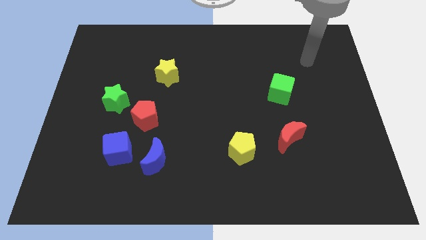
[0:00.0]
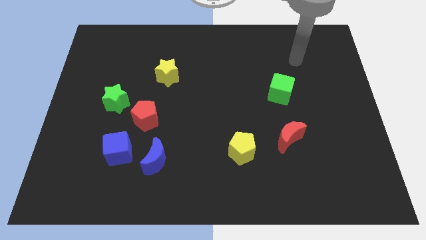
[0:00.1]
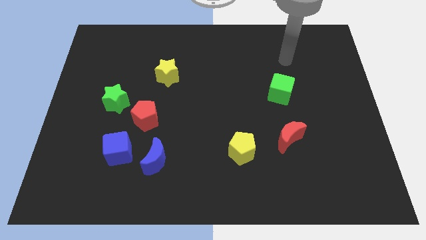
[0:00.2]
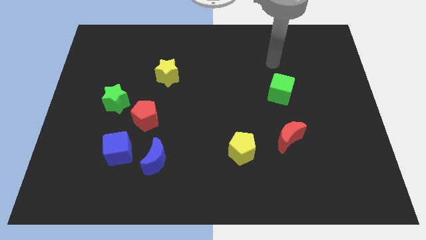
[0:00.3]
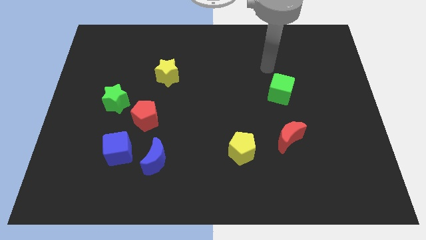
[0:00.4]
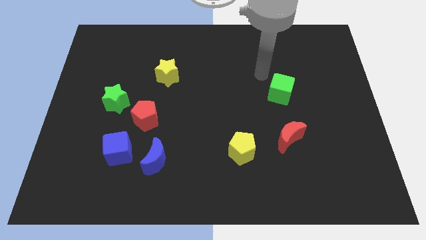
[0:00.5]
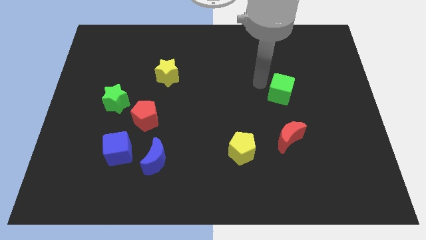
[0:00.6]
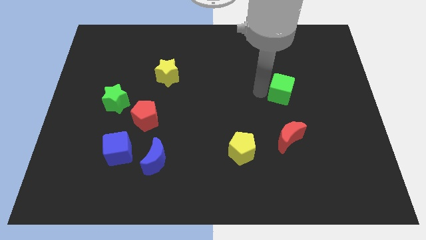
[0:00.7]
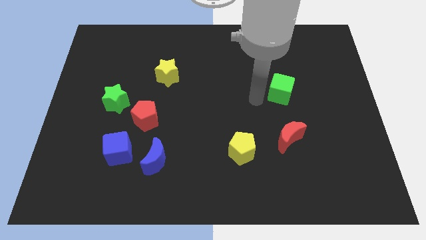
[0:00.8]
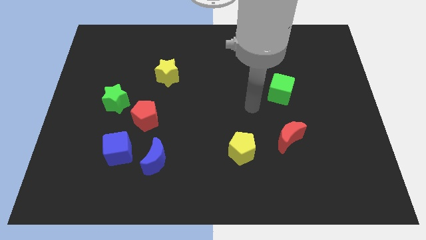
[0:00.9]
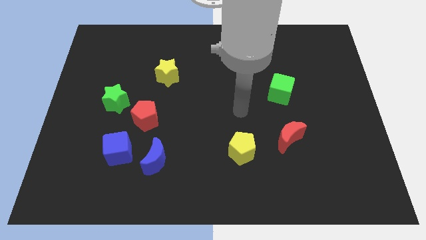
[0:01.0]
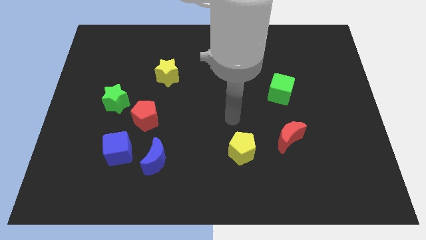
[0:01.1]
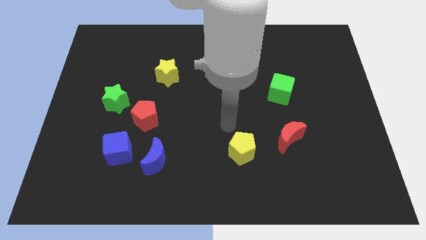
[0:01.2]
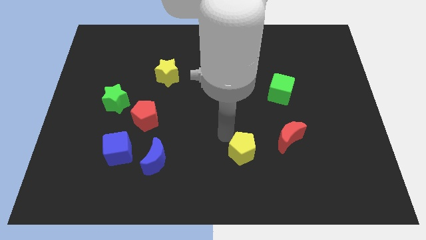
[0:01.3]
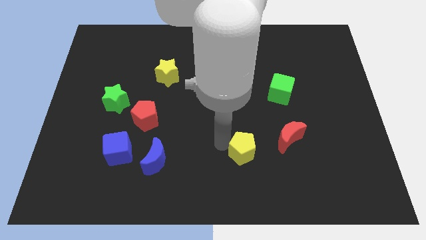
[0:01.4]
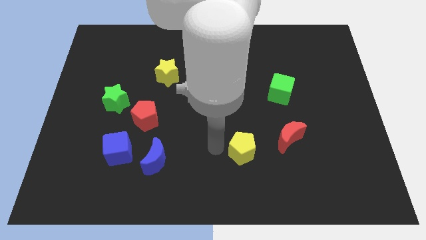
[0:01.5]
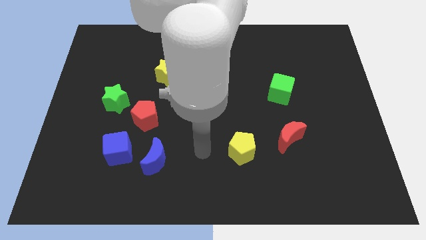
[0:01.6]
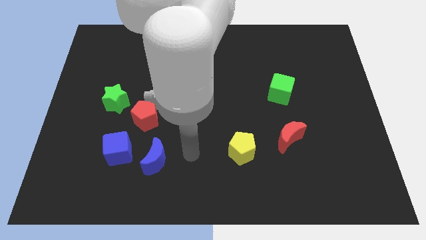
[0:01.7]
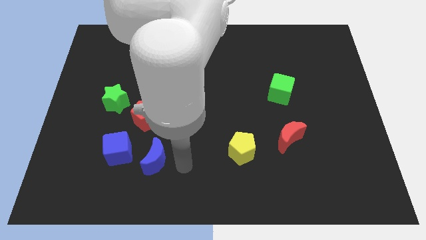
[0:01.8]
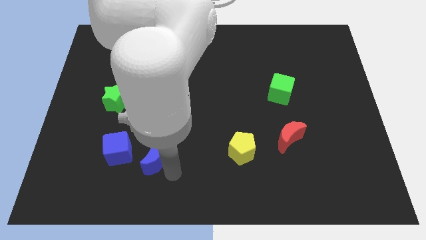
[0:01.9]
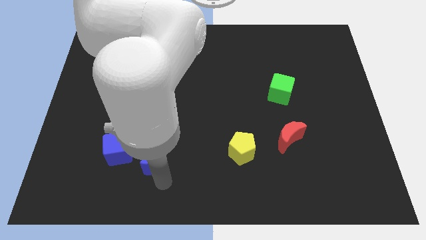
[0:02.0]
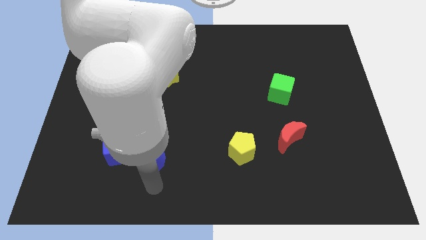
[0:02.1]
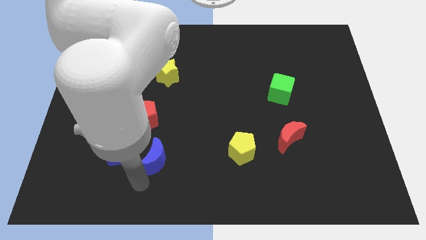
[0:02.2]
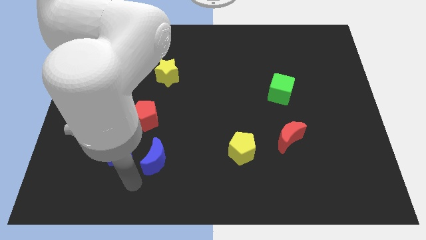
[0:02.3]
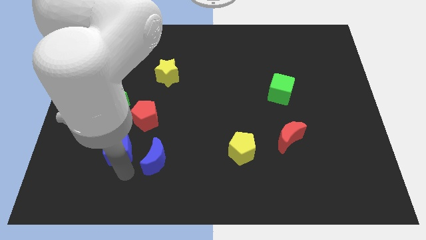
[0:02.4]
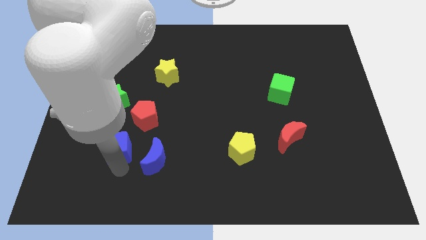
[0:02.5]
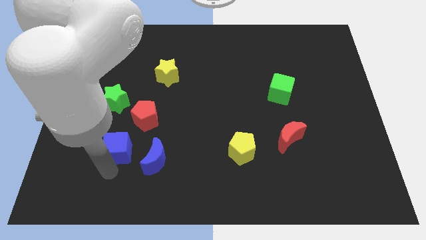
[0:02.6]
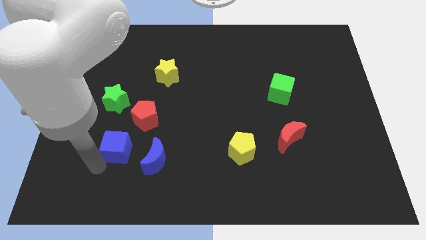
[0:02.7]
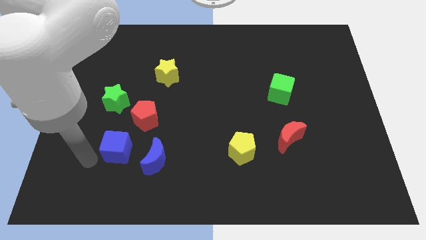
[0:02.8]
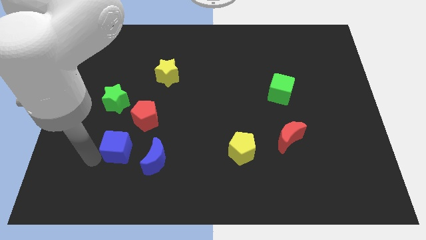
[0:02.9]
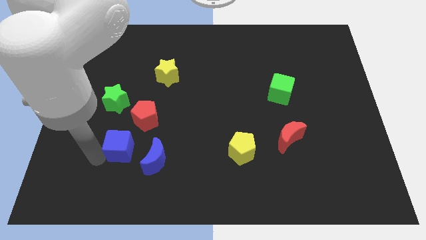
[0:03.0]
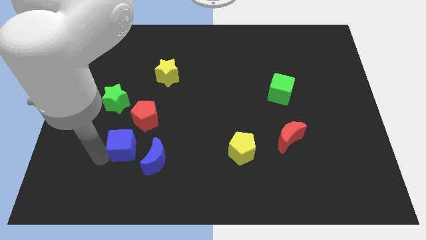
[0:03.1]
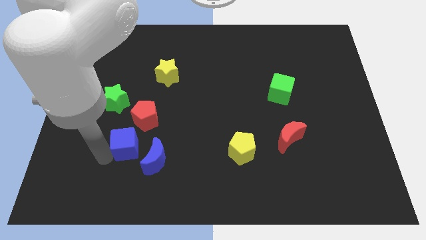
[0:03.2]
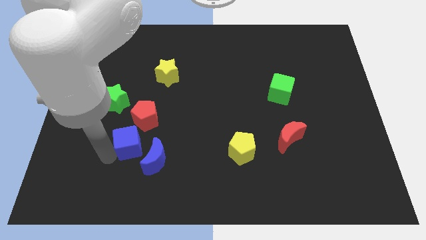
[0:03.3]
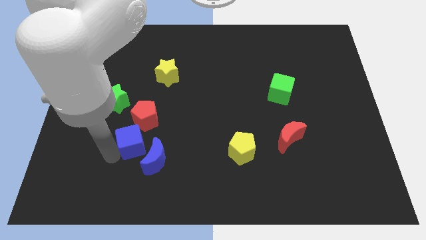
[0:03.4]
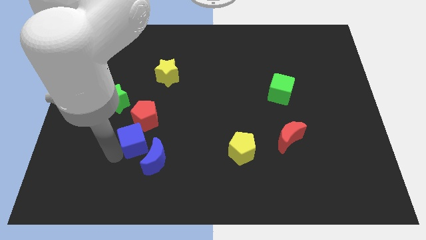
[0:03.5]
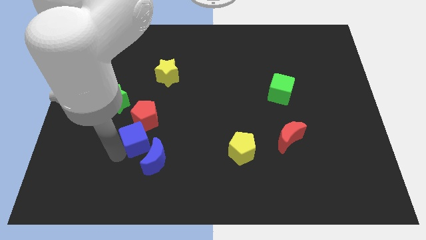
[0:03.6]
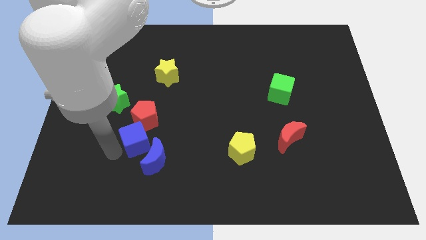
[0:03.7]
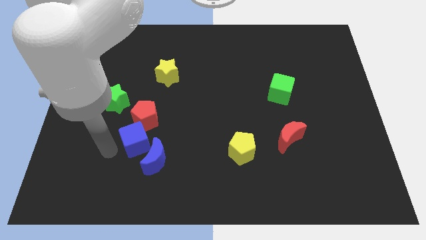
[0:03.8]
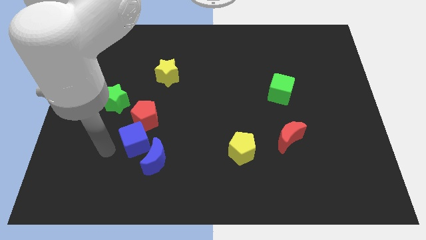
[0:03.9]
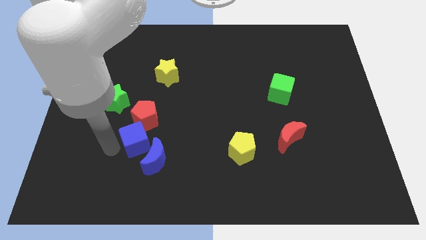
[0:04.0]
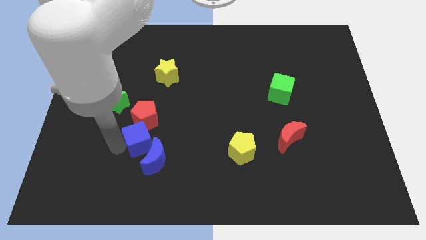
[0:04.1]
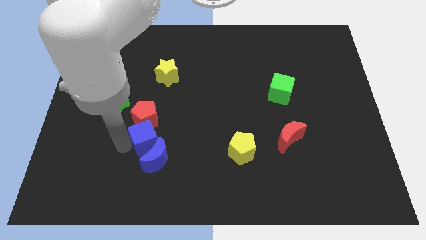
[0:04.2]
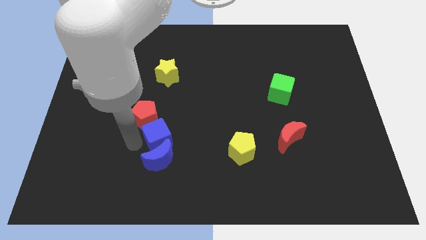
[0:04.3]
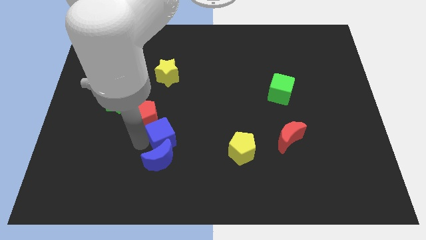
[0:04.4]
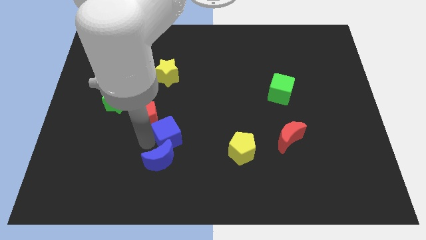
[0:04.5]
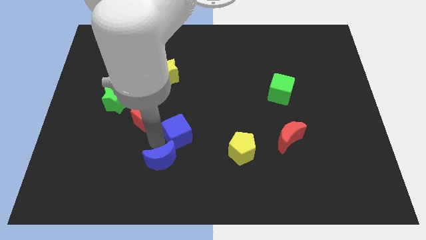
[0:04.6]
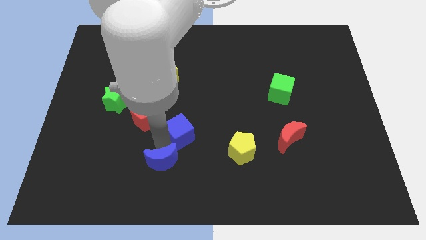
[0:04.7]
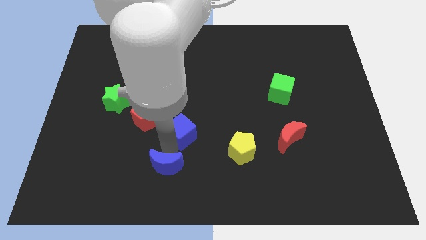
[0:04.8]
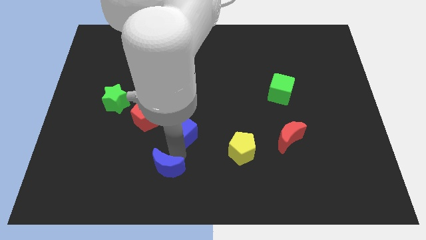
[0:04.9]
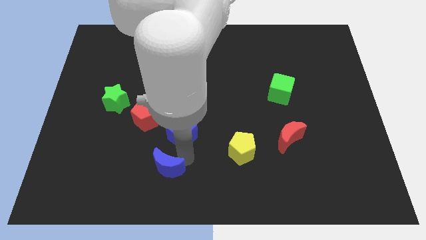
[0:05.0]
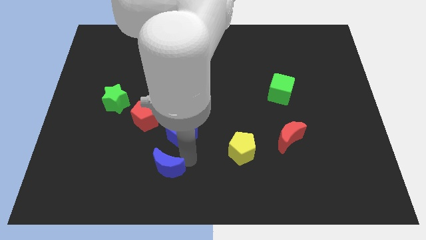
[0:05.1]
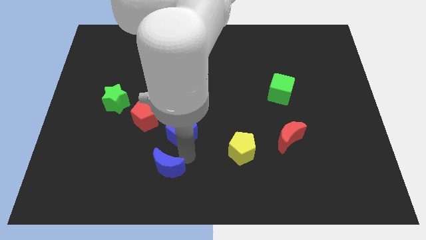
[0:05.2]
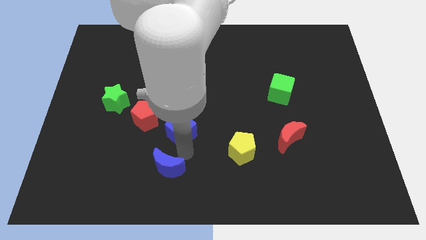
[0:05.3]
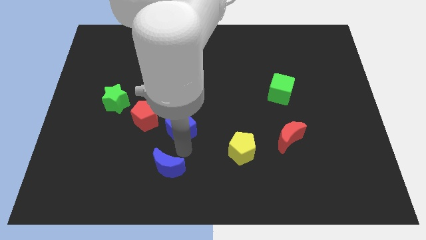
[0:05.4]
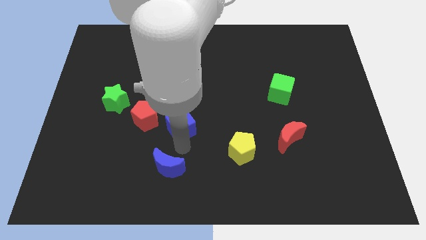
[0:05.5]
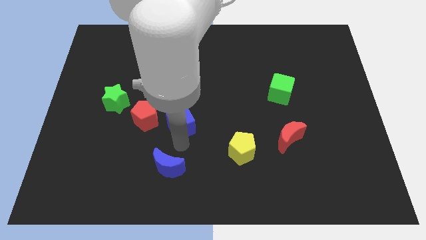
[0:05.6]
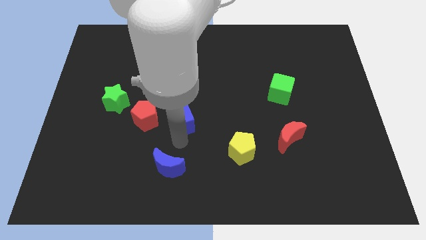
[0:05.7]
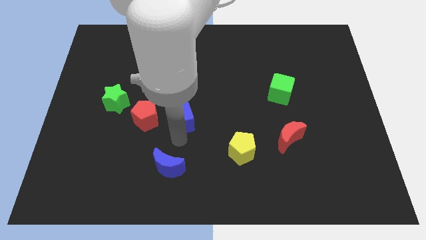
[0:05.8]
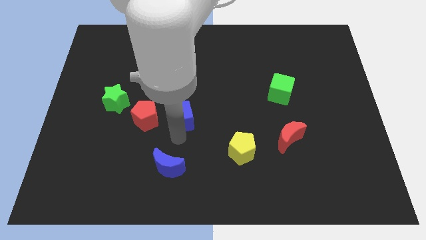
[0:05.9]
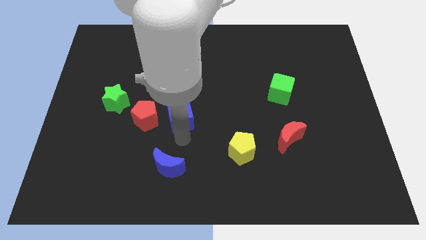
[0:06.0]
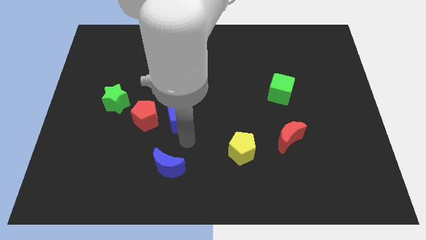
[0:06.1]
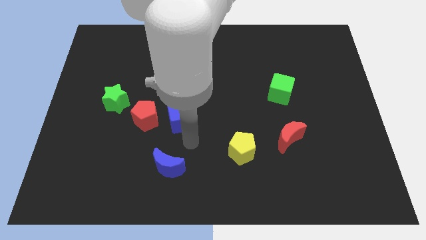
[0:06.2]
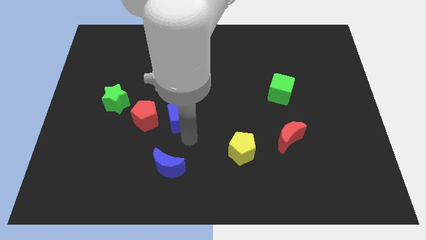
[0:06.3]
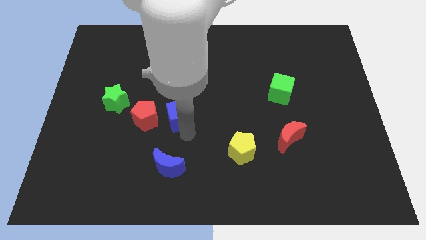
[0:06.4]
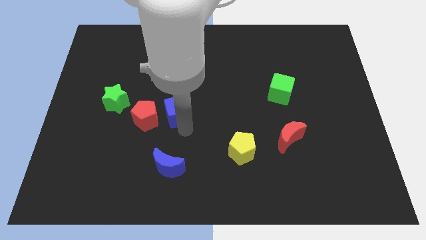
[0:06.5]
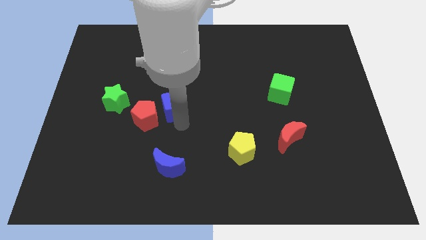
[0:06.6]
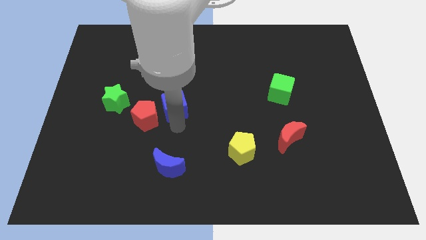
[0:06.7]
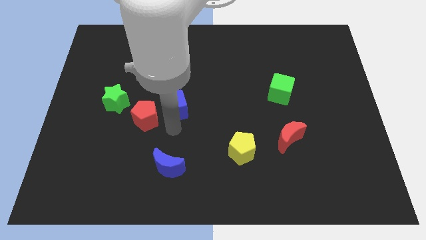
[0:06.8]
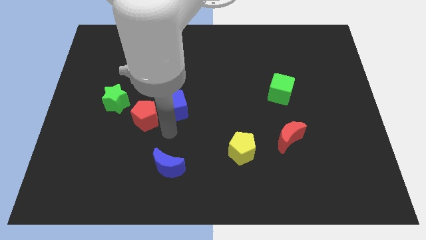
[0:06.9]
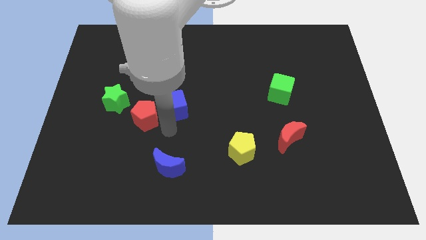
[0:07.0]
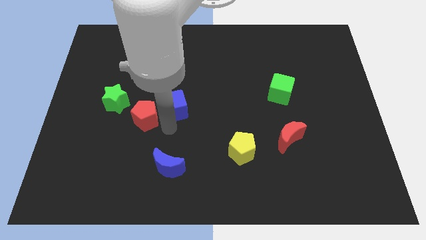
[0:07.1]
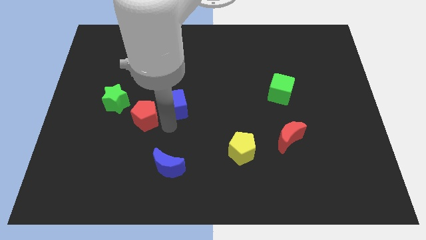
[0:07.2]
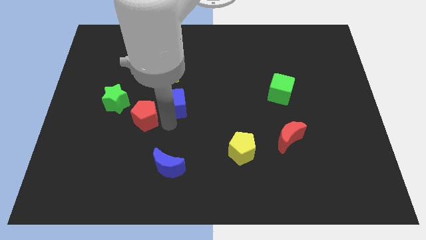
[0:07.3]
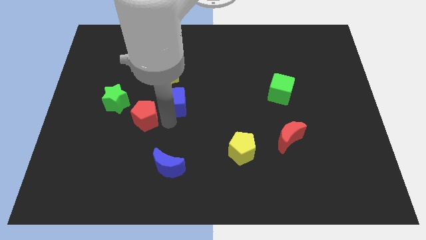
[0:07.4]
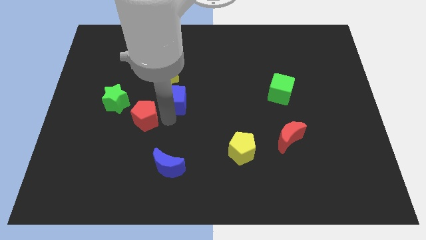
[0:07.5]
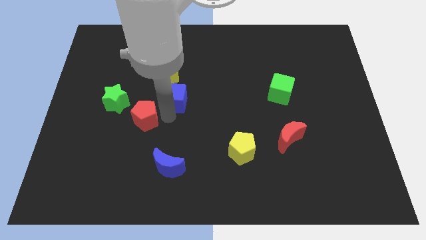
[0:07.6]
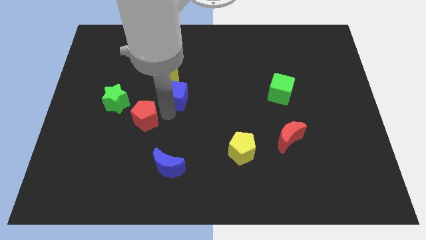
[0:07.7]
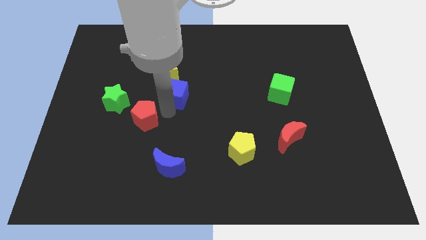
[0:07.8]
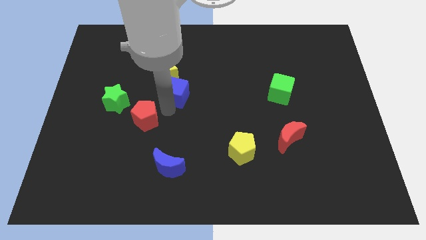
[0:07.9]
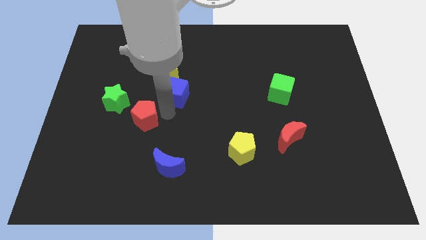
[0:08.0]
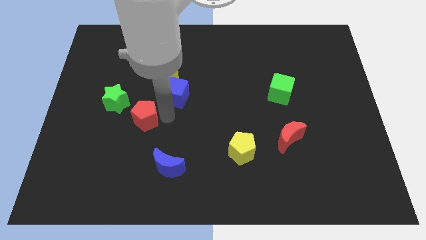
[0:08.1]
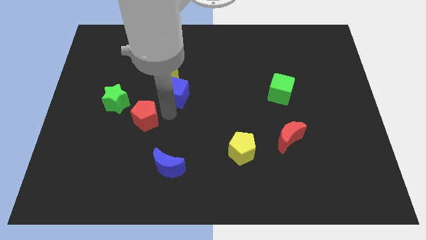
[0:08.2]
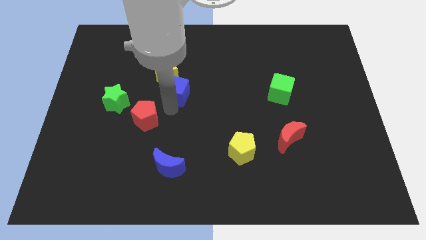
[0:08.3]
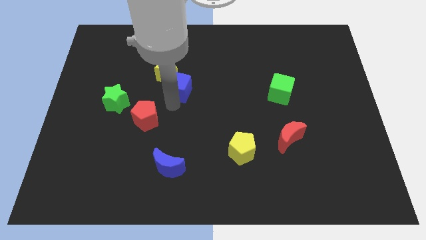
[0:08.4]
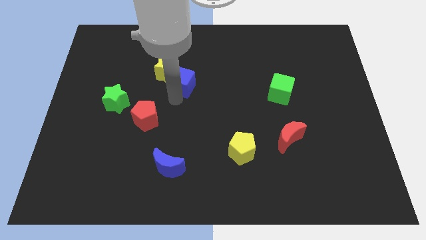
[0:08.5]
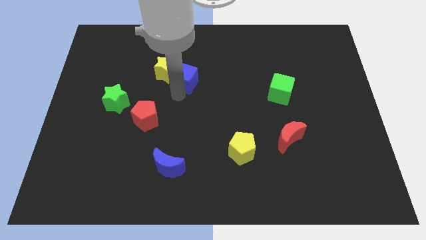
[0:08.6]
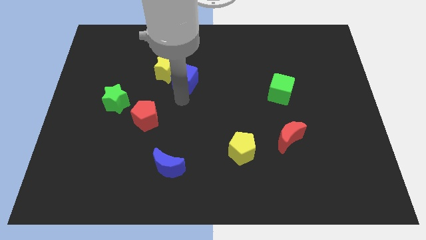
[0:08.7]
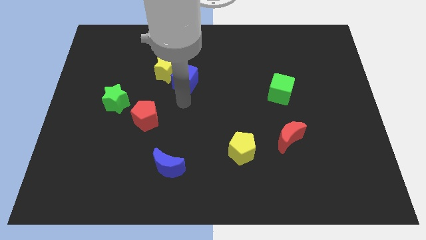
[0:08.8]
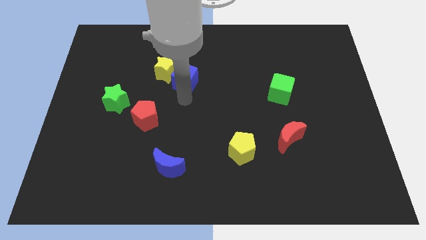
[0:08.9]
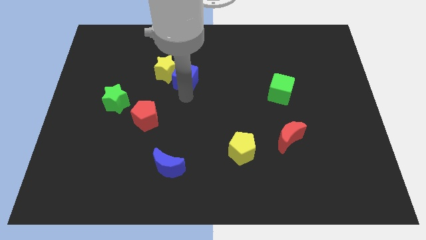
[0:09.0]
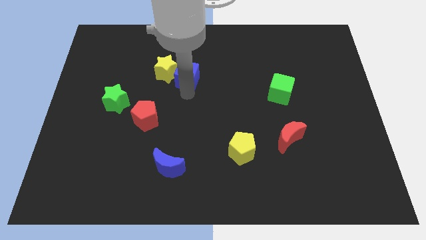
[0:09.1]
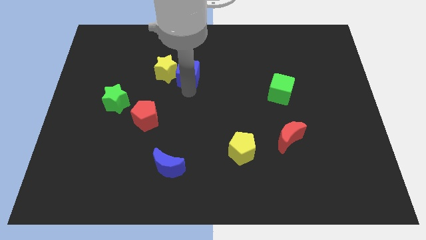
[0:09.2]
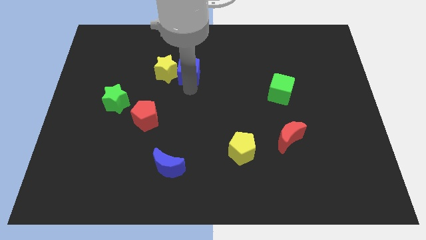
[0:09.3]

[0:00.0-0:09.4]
put the blue cube to the top right side of the yellow star
